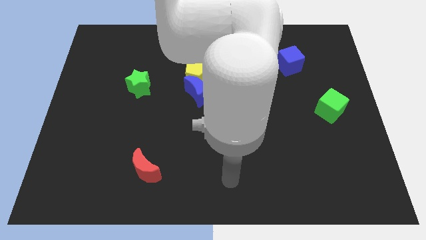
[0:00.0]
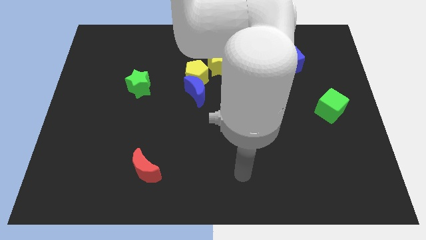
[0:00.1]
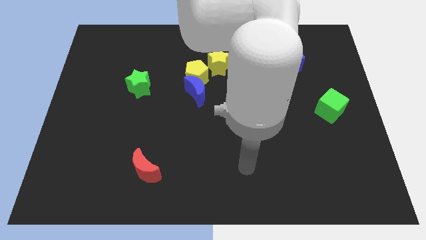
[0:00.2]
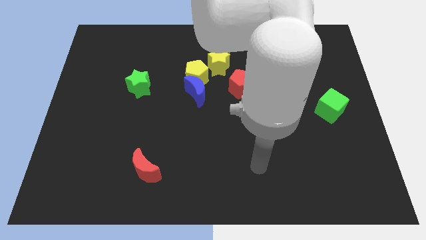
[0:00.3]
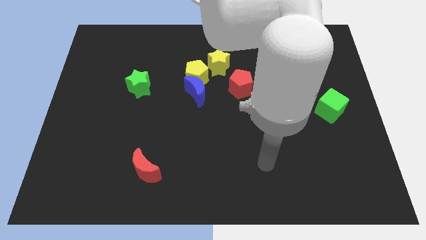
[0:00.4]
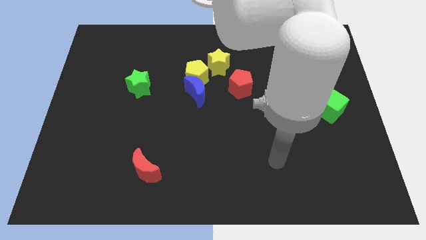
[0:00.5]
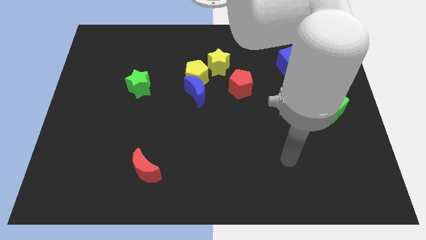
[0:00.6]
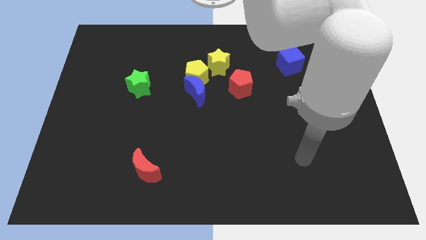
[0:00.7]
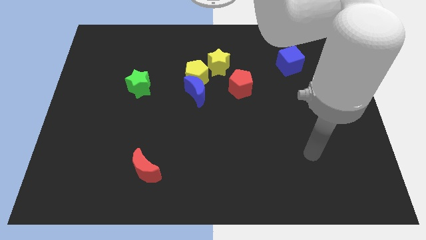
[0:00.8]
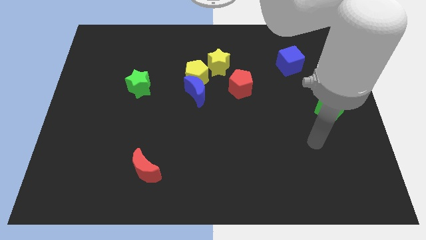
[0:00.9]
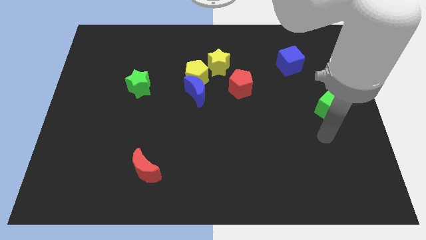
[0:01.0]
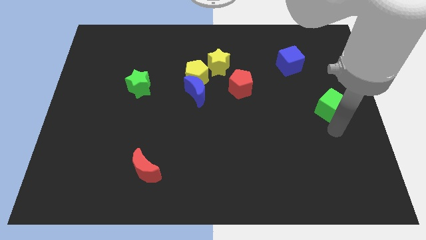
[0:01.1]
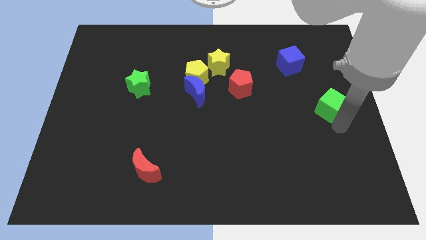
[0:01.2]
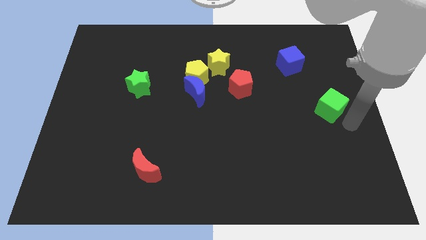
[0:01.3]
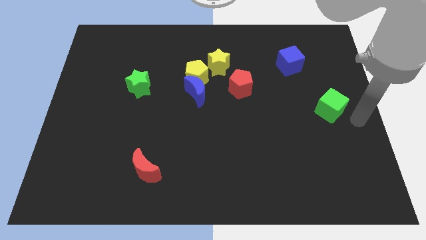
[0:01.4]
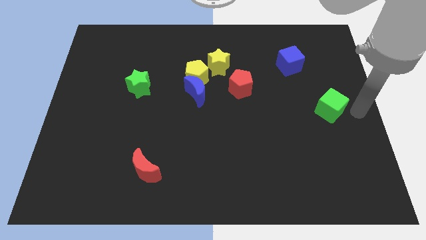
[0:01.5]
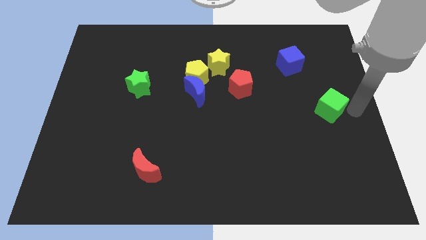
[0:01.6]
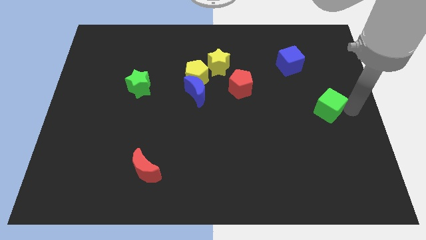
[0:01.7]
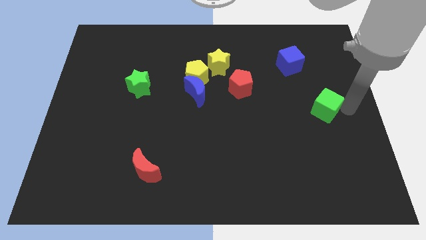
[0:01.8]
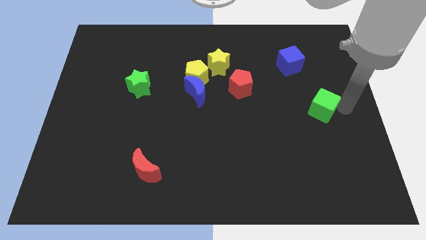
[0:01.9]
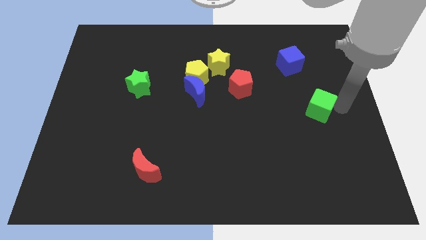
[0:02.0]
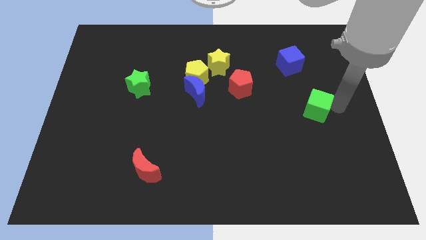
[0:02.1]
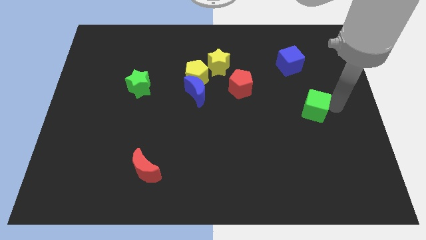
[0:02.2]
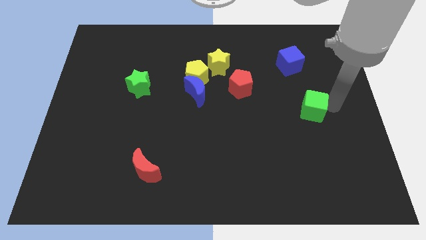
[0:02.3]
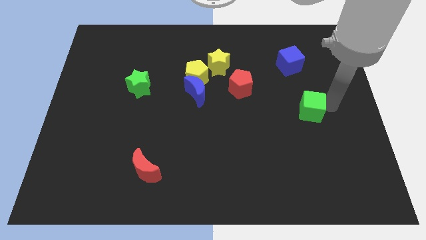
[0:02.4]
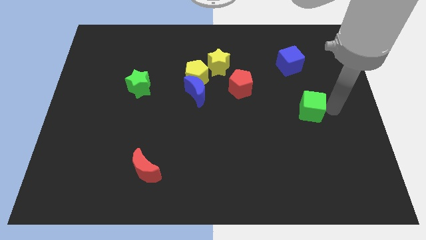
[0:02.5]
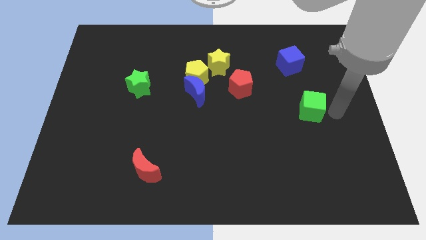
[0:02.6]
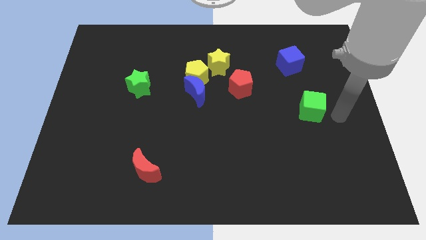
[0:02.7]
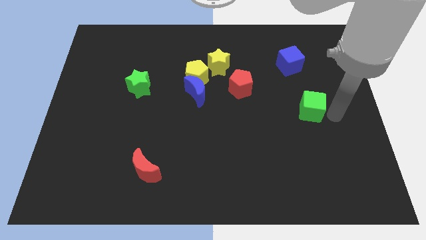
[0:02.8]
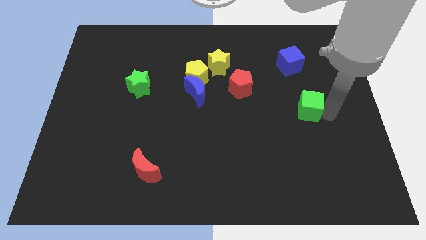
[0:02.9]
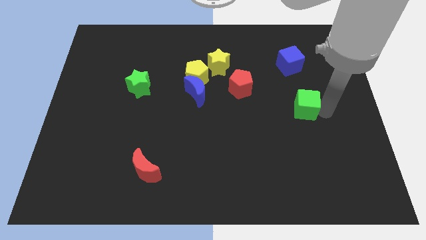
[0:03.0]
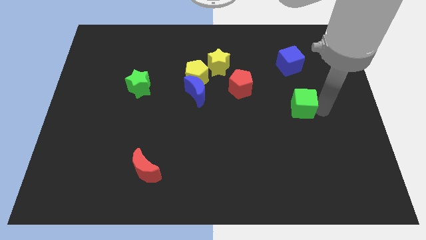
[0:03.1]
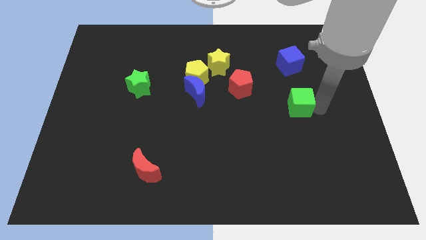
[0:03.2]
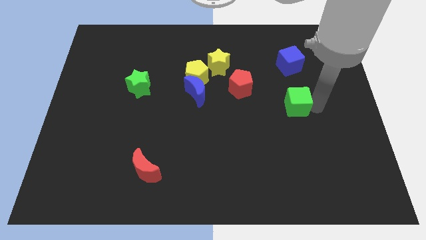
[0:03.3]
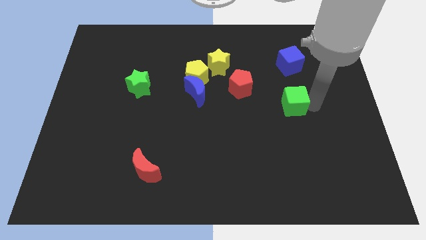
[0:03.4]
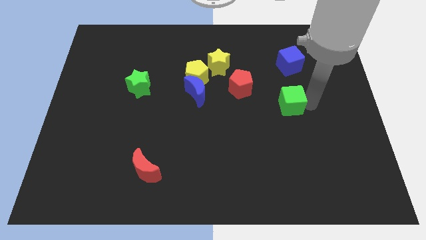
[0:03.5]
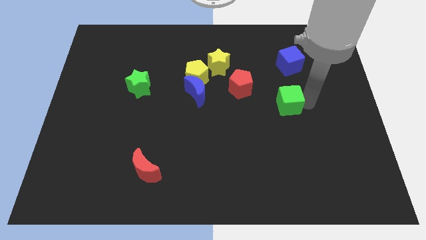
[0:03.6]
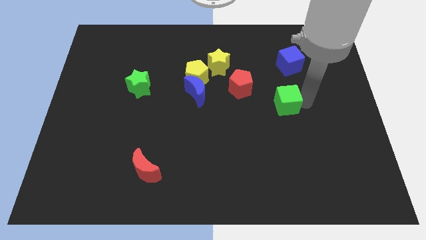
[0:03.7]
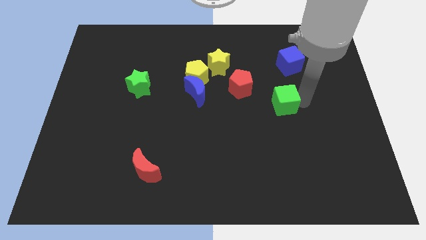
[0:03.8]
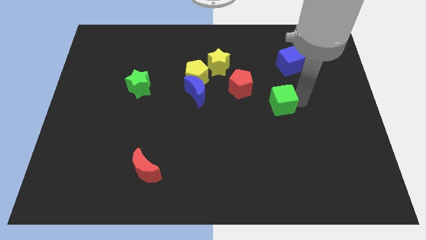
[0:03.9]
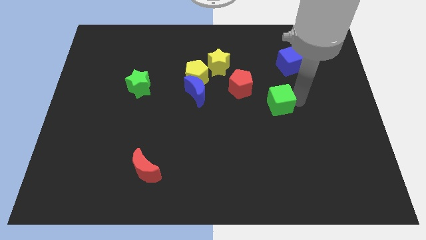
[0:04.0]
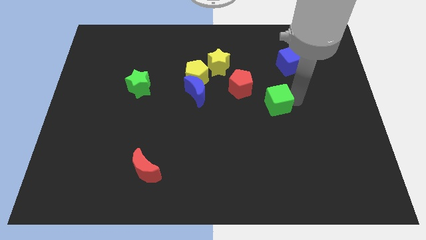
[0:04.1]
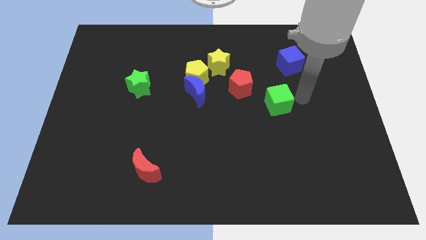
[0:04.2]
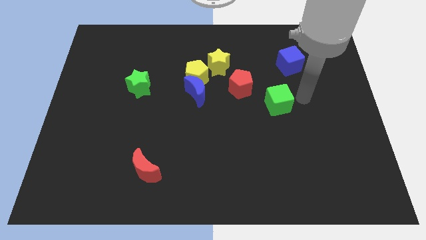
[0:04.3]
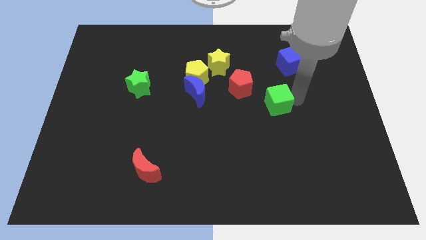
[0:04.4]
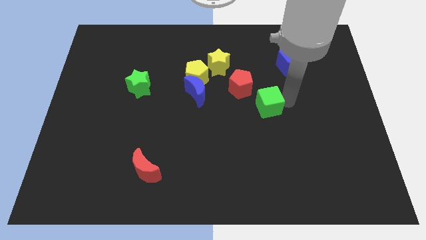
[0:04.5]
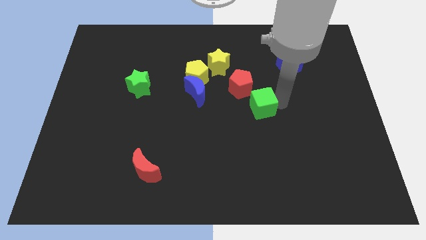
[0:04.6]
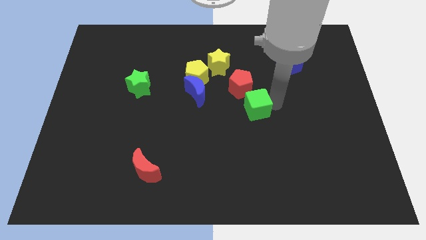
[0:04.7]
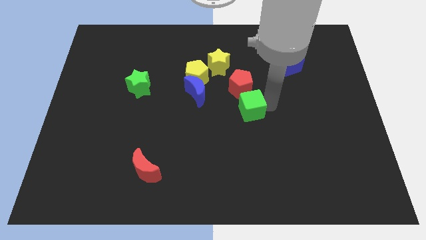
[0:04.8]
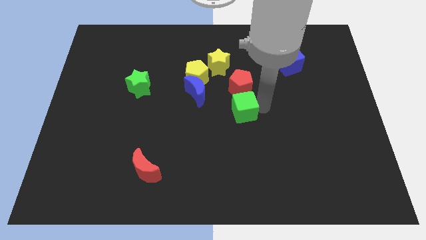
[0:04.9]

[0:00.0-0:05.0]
push the green cube left

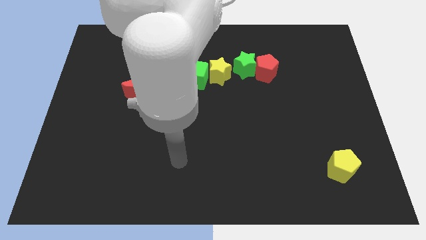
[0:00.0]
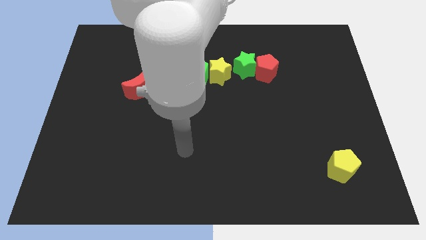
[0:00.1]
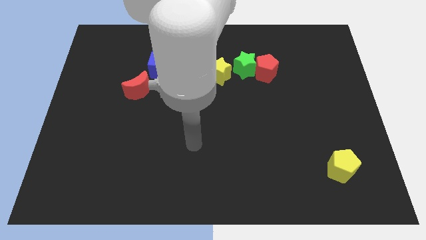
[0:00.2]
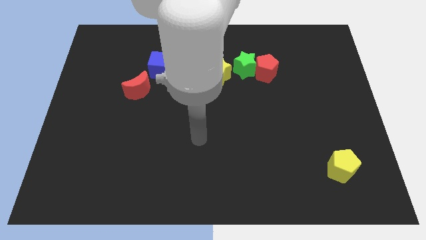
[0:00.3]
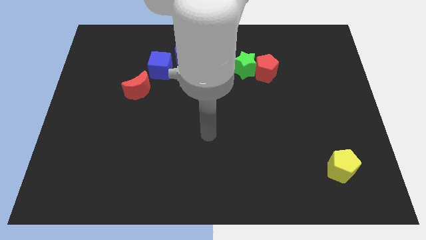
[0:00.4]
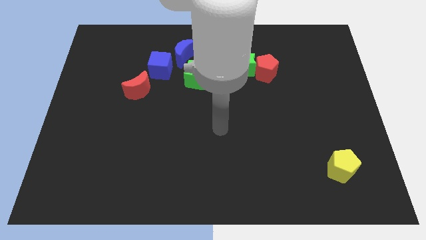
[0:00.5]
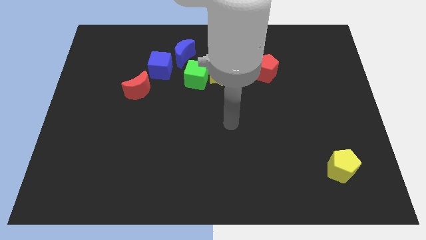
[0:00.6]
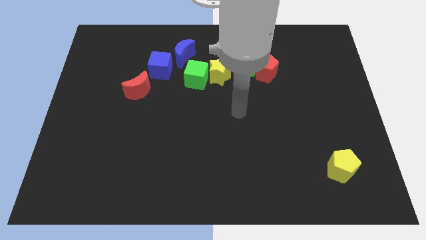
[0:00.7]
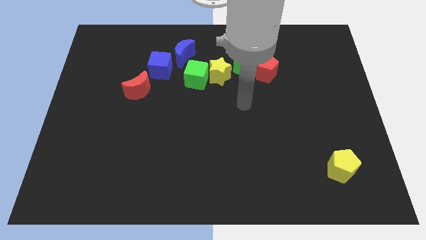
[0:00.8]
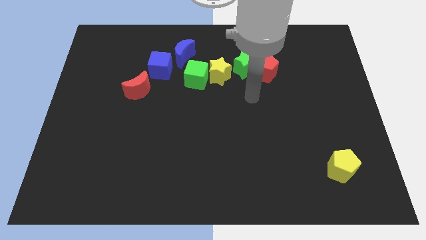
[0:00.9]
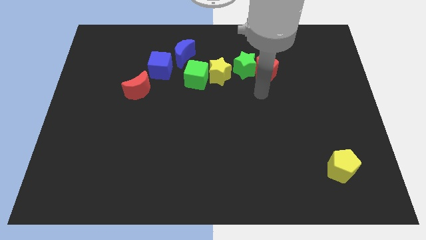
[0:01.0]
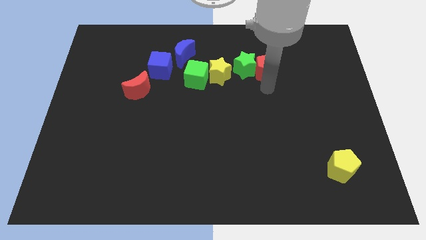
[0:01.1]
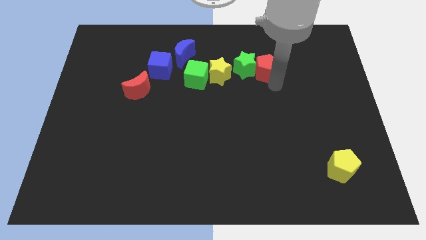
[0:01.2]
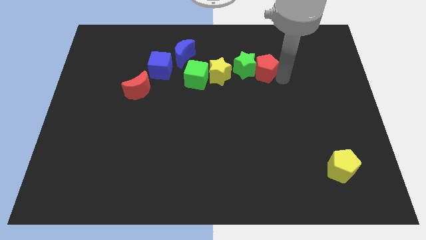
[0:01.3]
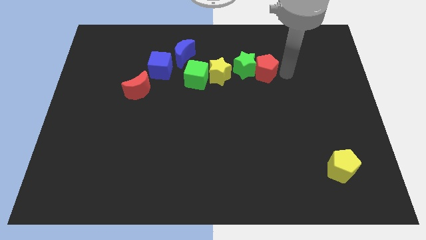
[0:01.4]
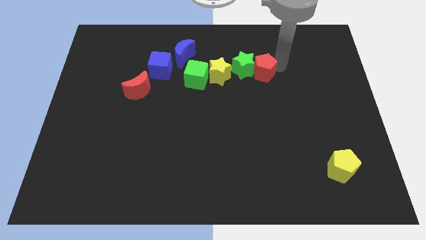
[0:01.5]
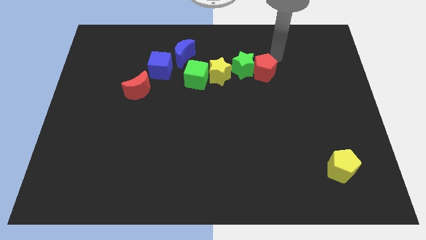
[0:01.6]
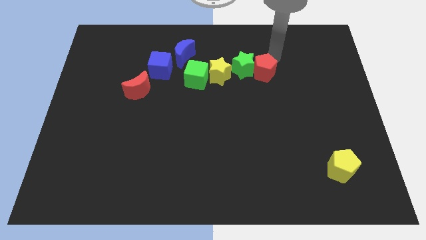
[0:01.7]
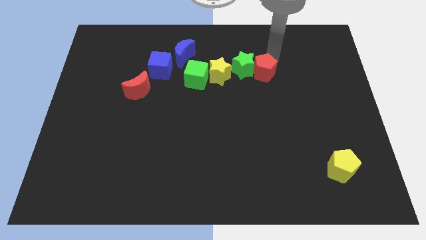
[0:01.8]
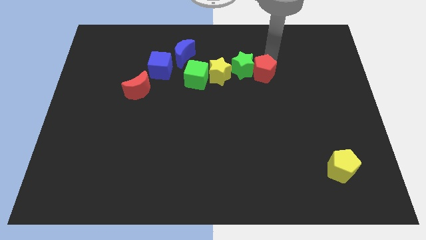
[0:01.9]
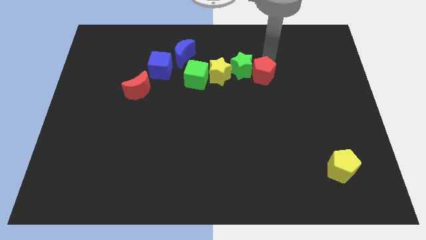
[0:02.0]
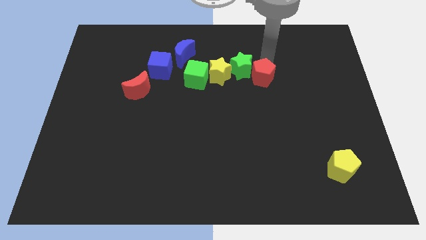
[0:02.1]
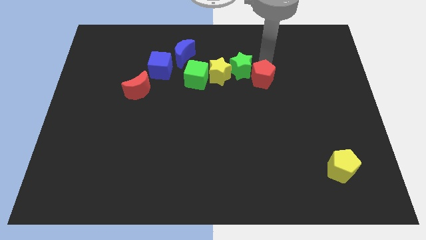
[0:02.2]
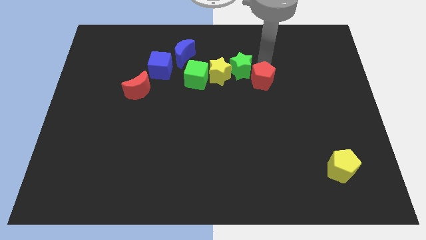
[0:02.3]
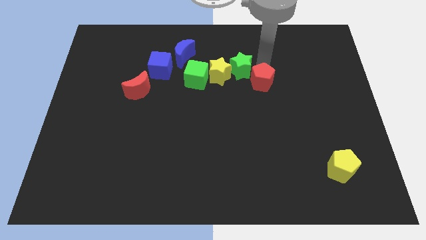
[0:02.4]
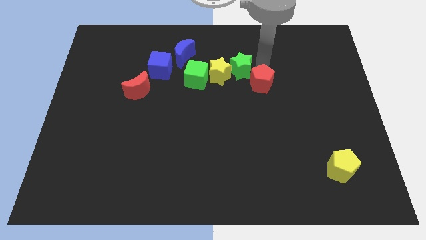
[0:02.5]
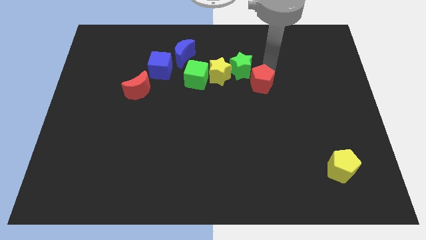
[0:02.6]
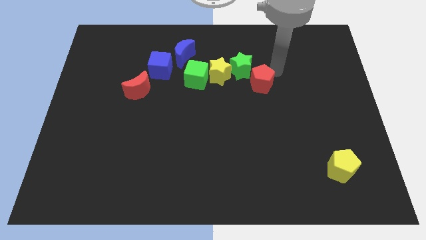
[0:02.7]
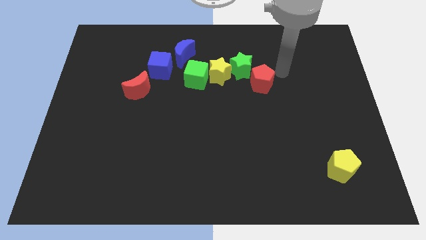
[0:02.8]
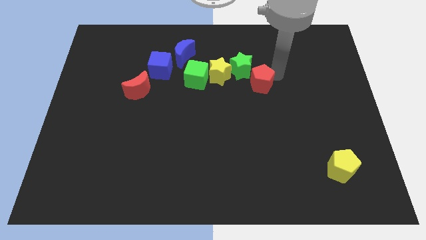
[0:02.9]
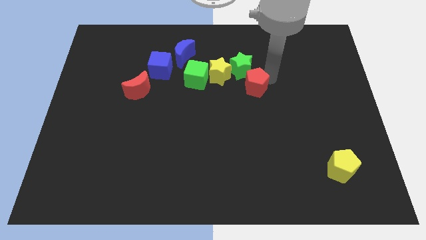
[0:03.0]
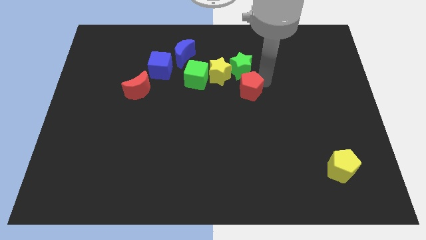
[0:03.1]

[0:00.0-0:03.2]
move the red pentagon down and then left a little
